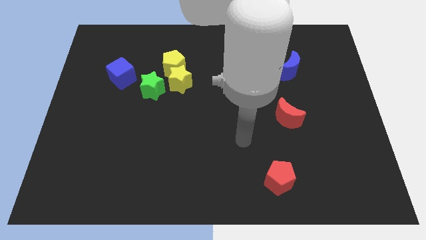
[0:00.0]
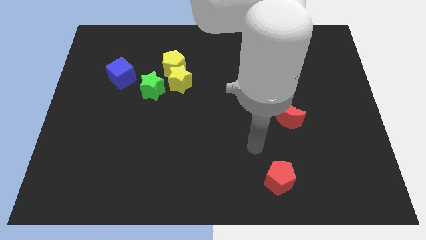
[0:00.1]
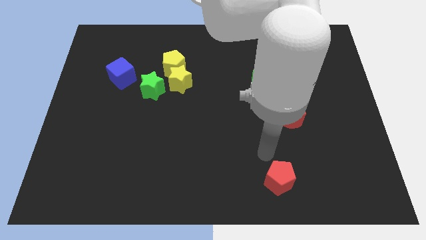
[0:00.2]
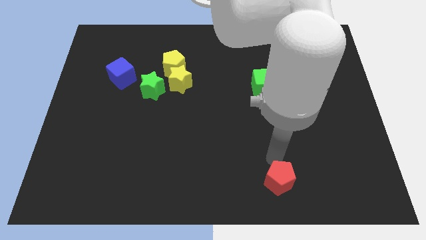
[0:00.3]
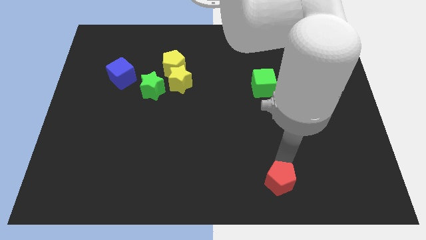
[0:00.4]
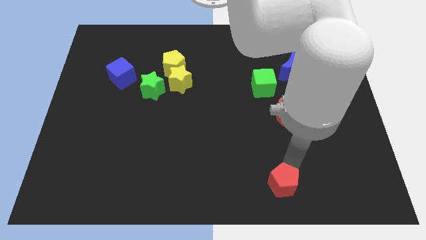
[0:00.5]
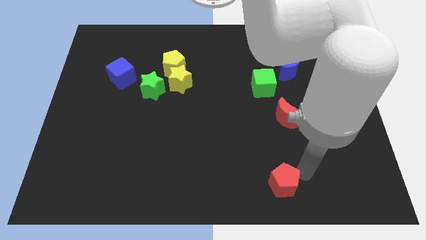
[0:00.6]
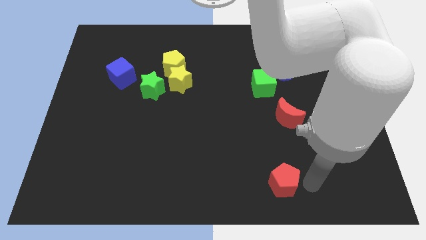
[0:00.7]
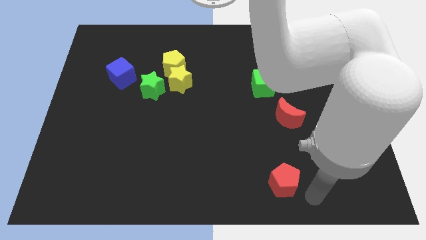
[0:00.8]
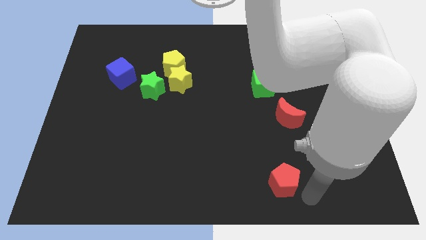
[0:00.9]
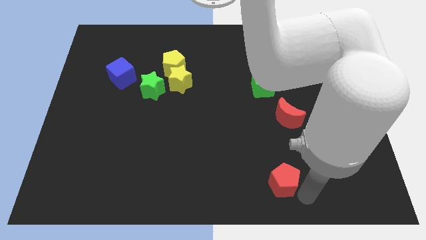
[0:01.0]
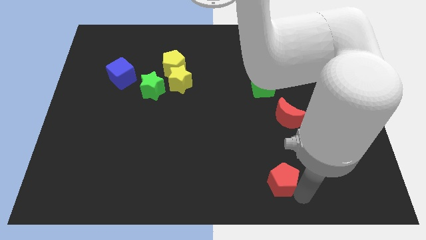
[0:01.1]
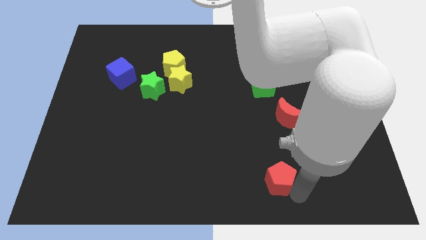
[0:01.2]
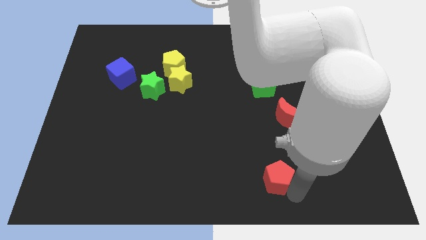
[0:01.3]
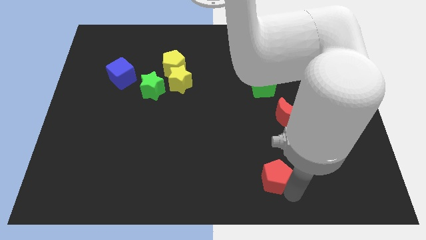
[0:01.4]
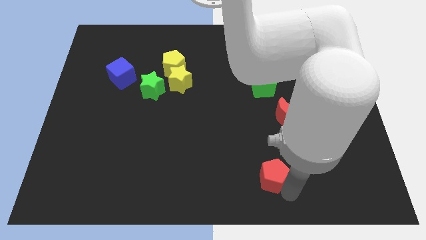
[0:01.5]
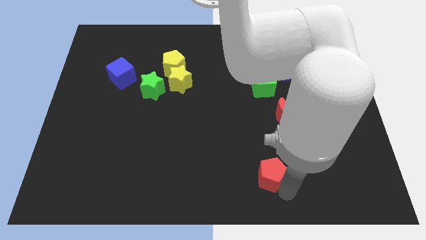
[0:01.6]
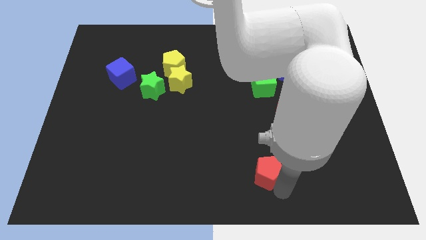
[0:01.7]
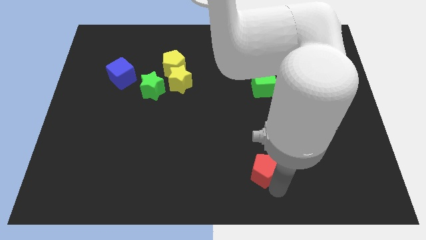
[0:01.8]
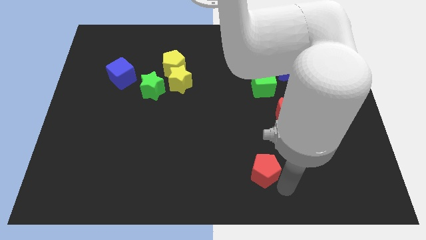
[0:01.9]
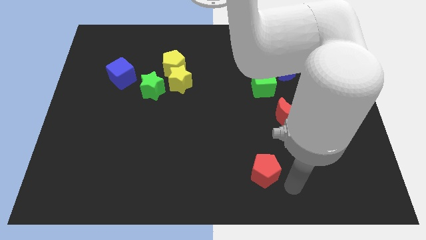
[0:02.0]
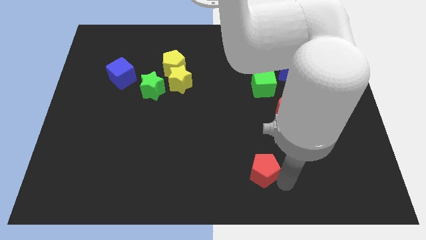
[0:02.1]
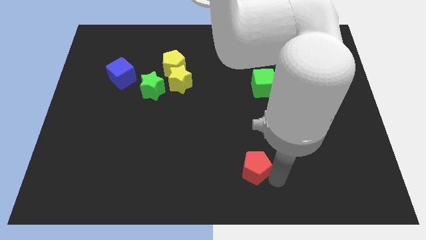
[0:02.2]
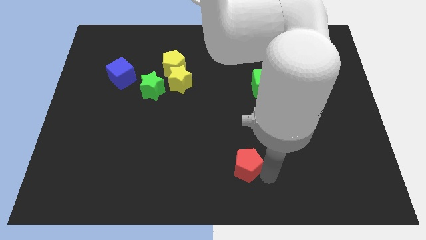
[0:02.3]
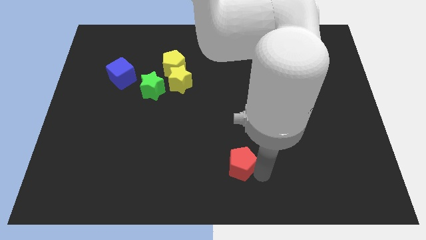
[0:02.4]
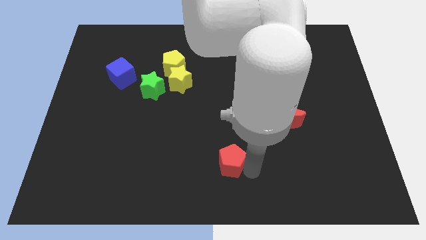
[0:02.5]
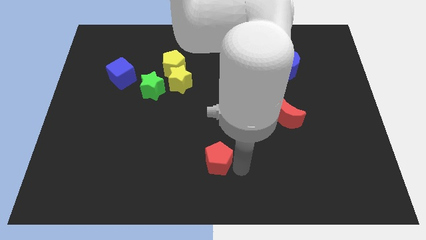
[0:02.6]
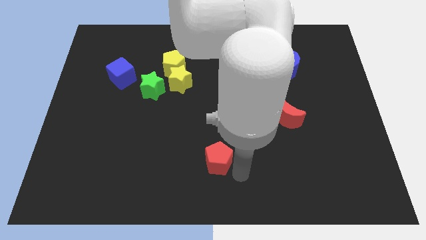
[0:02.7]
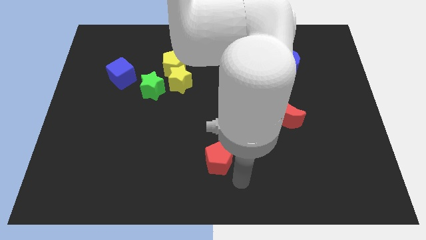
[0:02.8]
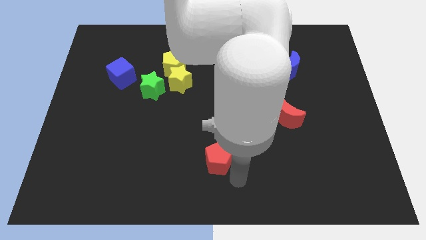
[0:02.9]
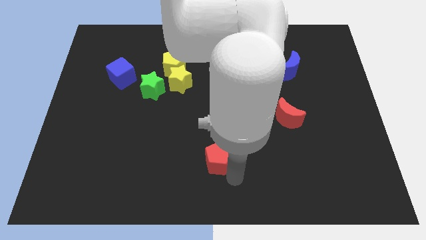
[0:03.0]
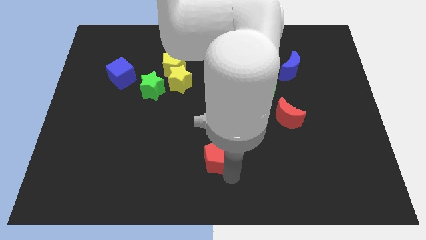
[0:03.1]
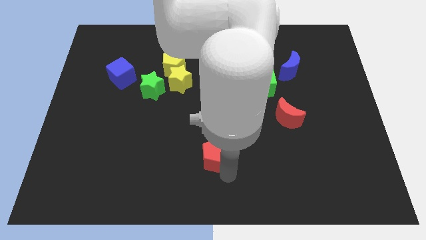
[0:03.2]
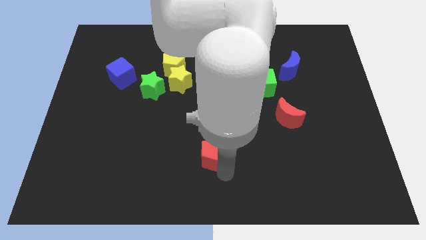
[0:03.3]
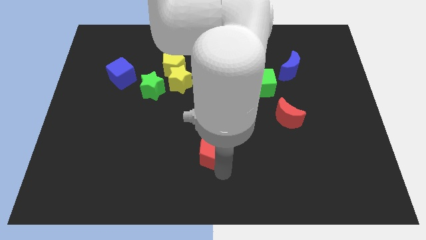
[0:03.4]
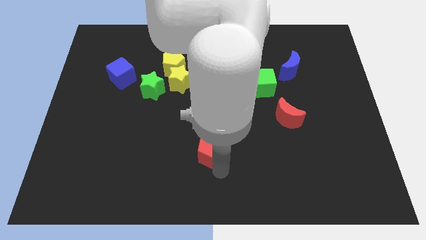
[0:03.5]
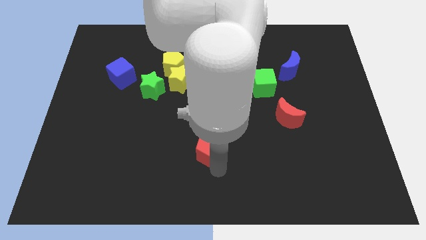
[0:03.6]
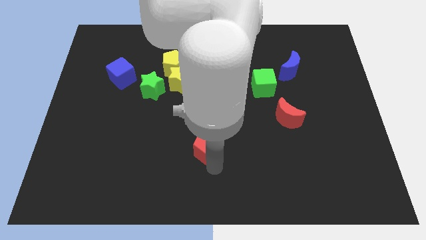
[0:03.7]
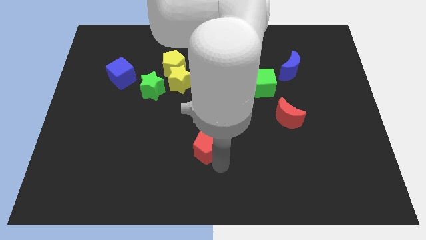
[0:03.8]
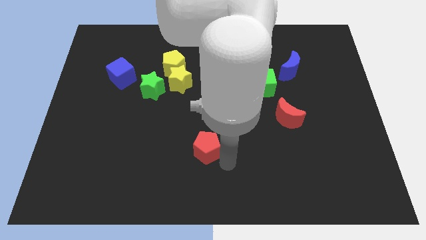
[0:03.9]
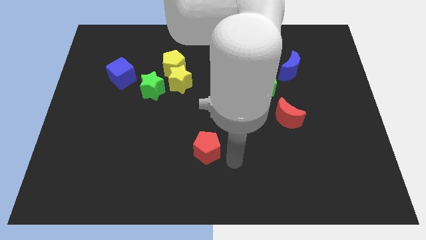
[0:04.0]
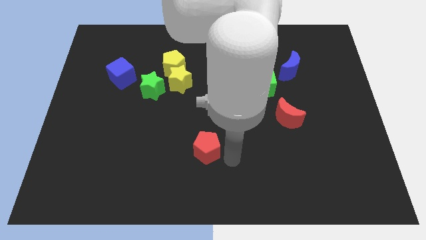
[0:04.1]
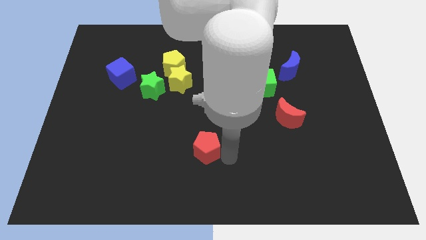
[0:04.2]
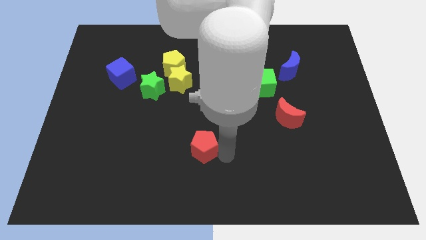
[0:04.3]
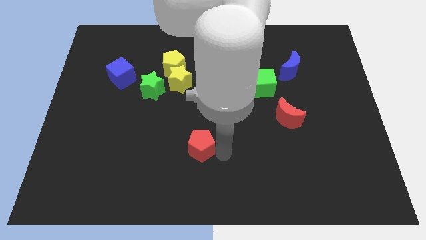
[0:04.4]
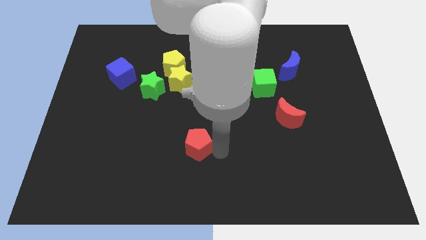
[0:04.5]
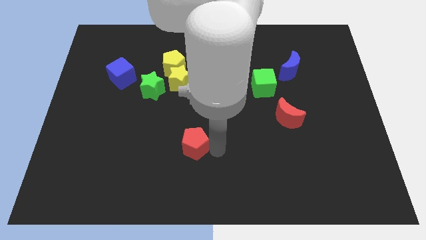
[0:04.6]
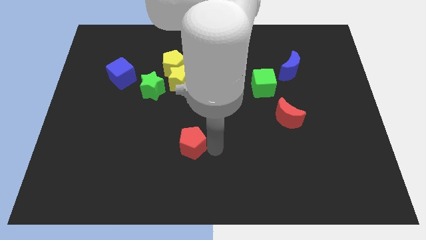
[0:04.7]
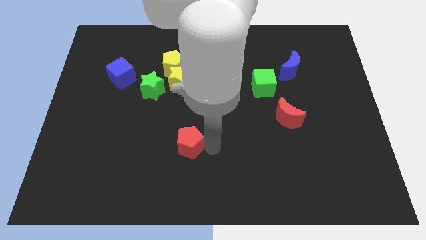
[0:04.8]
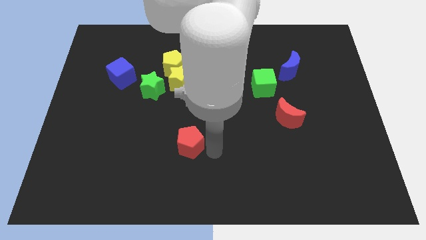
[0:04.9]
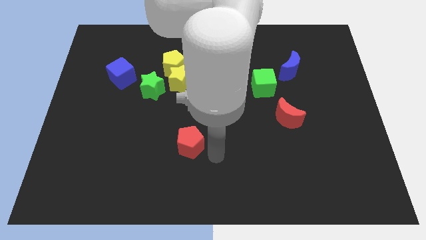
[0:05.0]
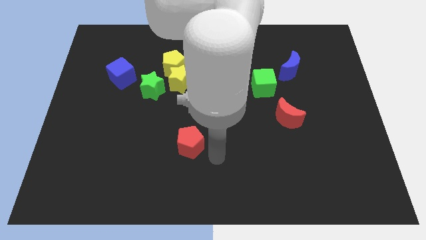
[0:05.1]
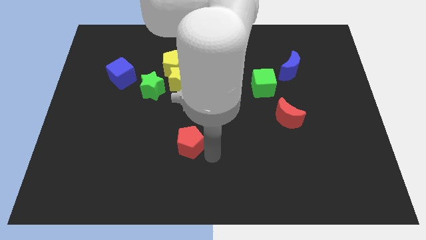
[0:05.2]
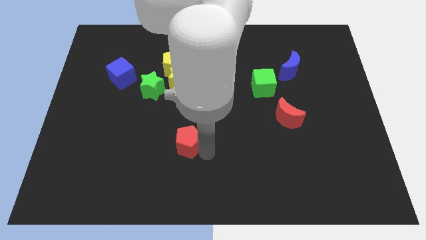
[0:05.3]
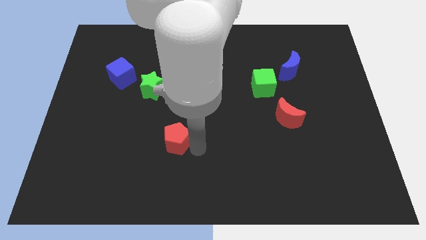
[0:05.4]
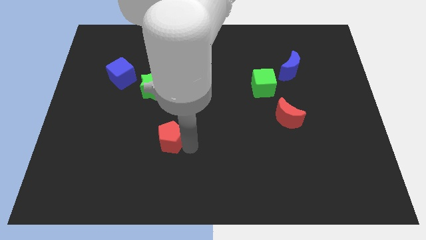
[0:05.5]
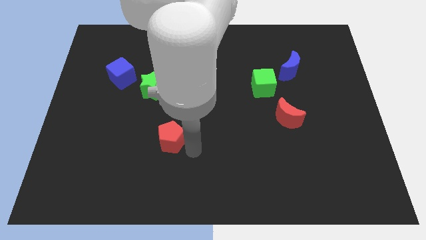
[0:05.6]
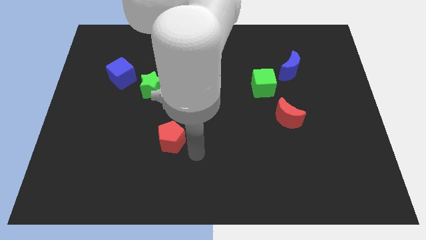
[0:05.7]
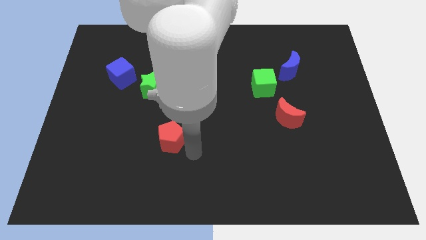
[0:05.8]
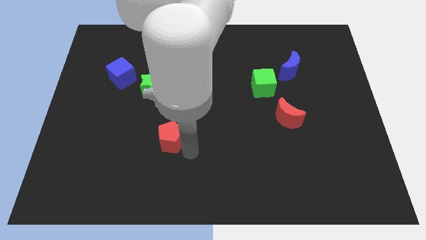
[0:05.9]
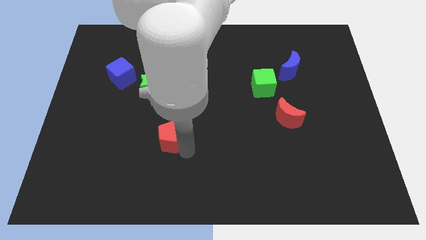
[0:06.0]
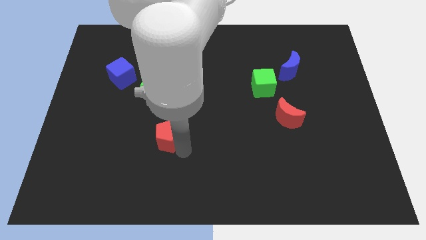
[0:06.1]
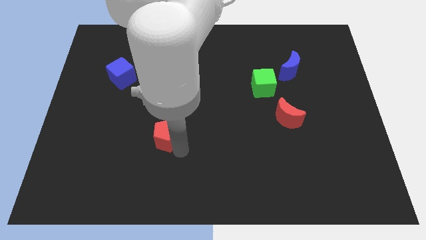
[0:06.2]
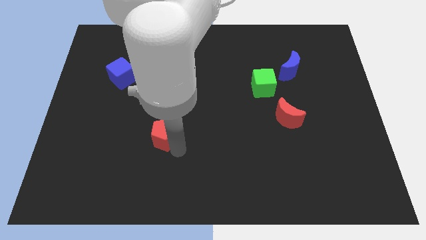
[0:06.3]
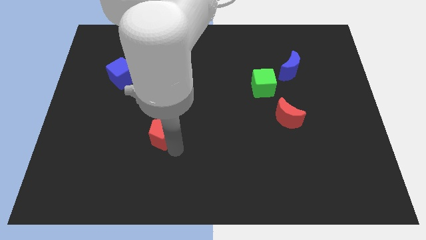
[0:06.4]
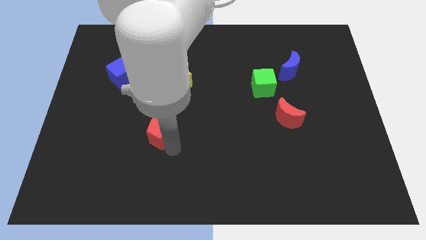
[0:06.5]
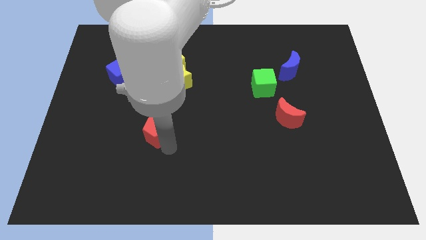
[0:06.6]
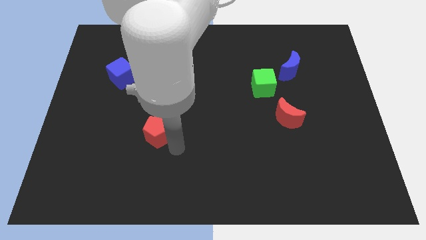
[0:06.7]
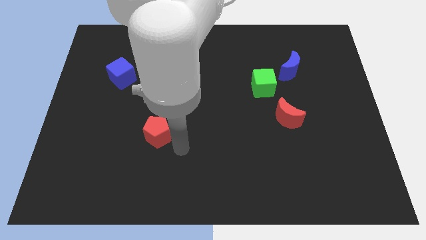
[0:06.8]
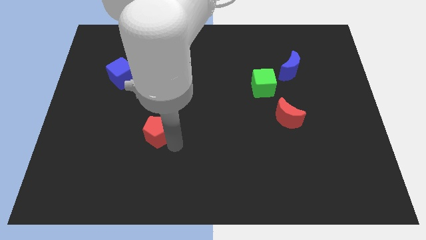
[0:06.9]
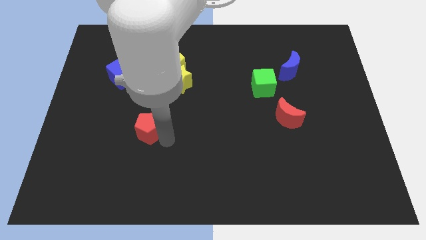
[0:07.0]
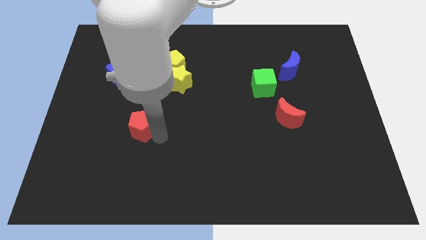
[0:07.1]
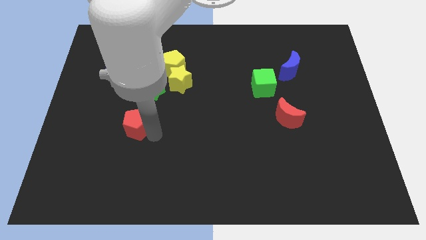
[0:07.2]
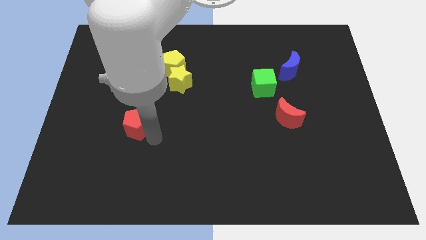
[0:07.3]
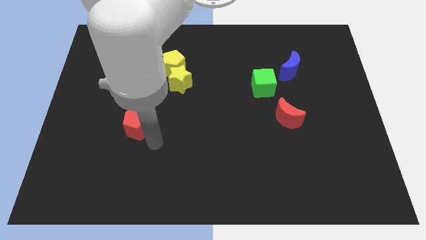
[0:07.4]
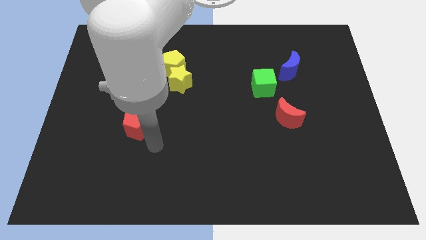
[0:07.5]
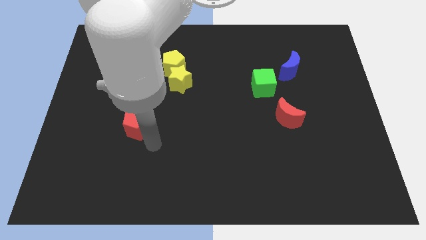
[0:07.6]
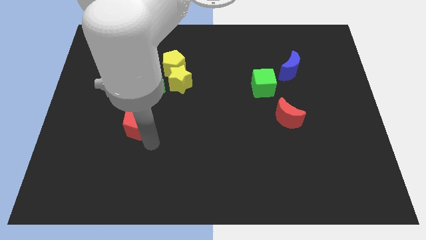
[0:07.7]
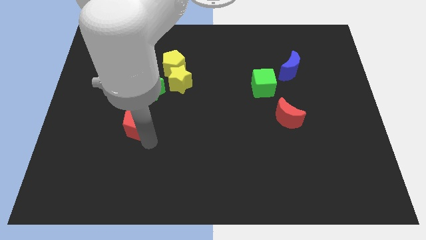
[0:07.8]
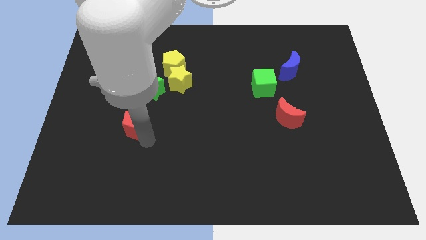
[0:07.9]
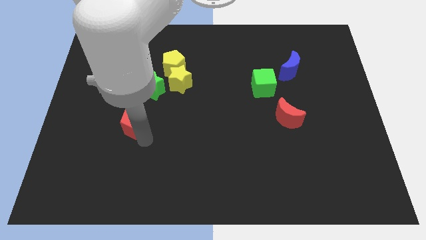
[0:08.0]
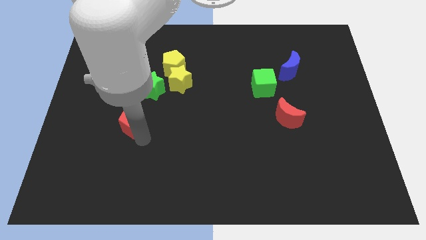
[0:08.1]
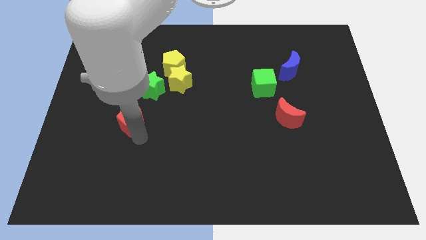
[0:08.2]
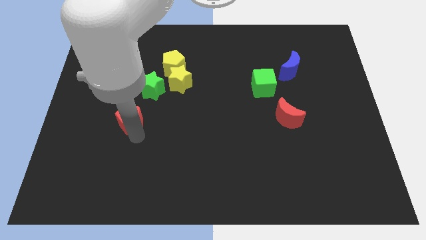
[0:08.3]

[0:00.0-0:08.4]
push the red pentagon to the bottom side of the blue cube
